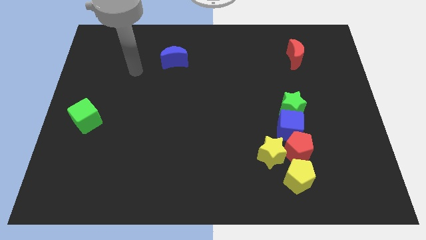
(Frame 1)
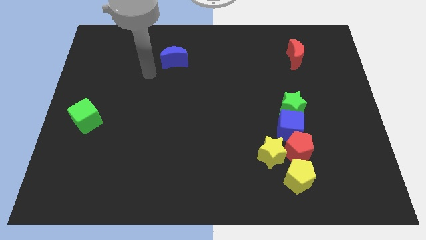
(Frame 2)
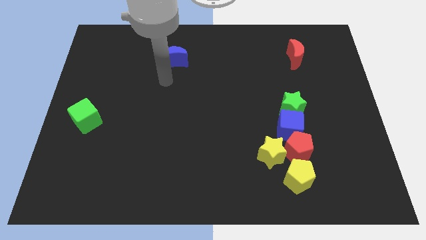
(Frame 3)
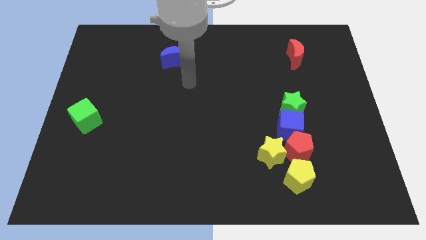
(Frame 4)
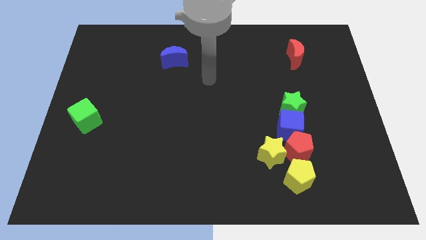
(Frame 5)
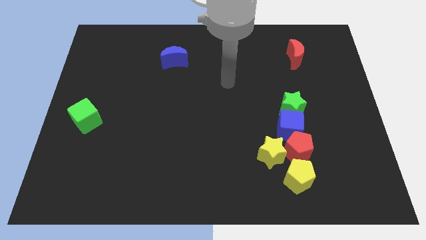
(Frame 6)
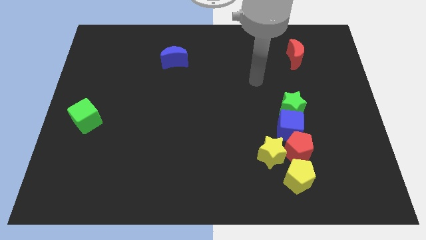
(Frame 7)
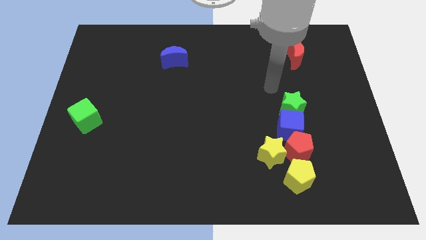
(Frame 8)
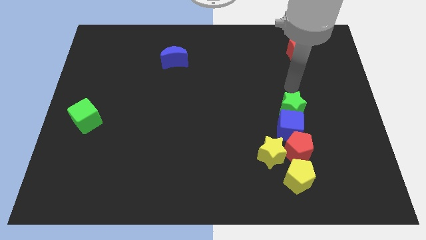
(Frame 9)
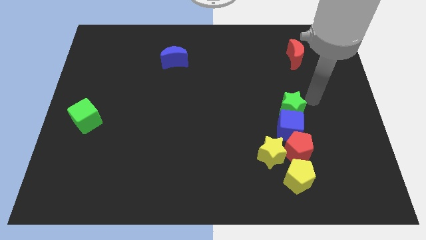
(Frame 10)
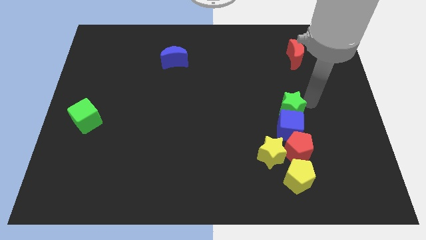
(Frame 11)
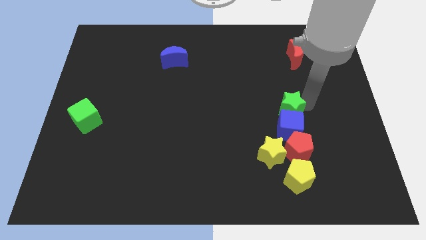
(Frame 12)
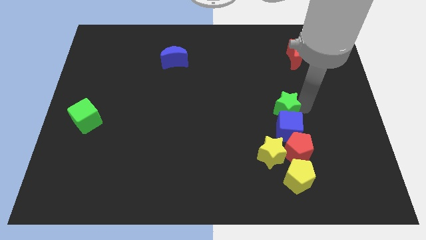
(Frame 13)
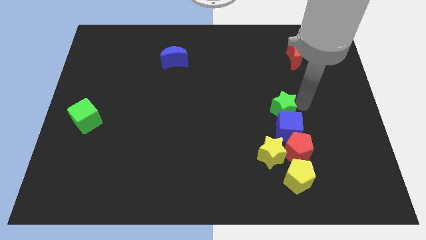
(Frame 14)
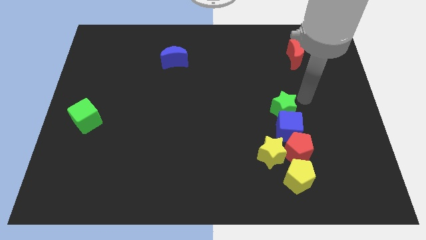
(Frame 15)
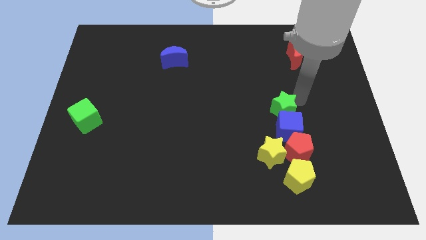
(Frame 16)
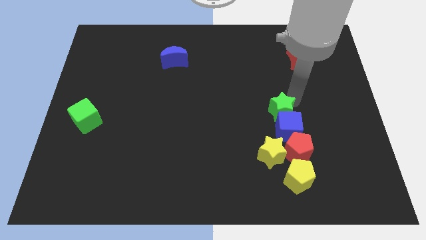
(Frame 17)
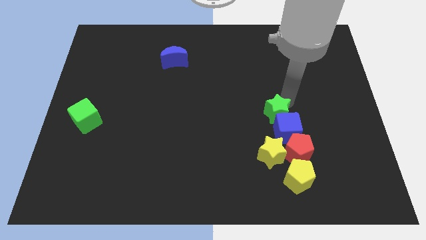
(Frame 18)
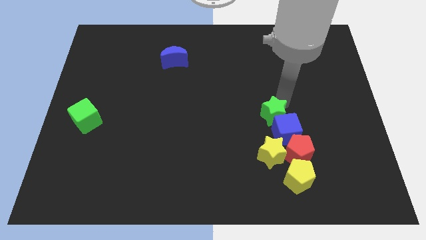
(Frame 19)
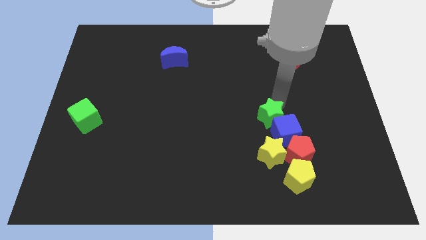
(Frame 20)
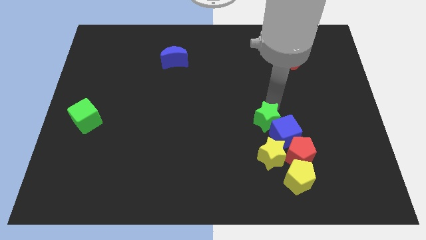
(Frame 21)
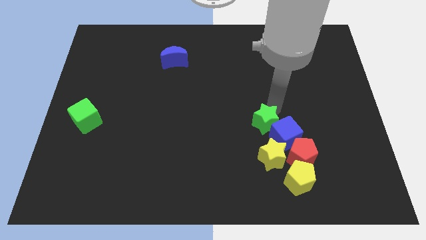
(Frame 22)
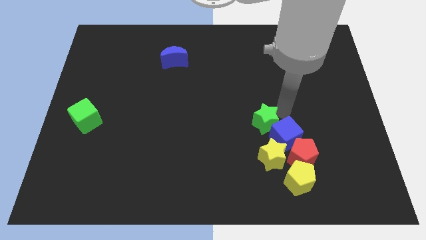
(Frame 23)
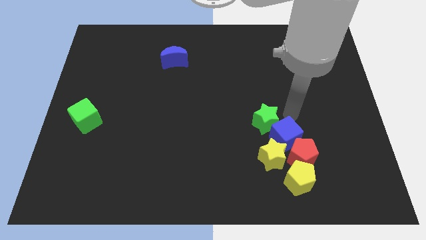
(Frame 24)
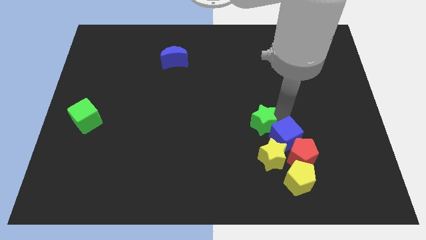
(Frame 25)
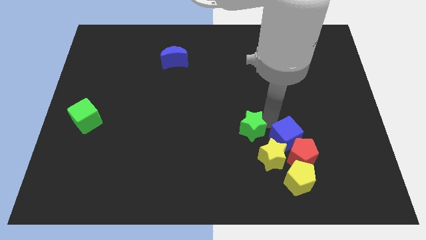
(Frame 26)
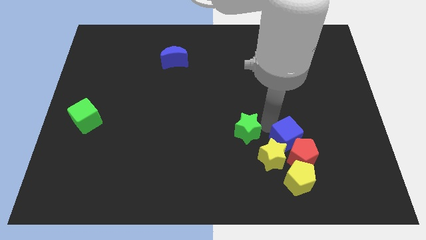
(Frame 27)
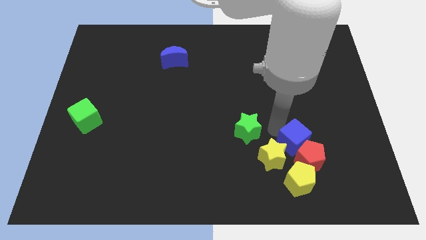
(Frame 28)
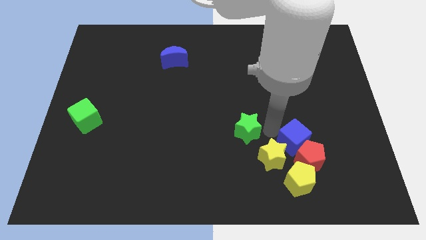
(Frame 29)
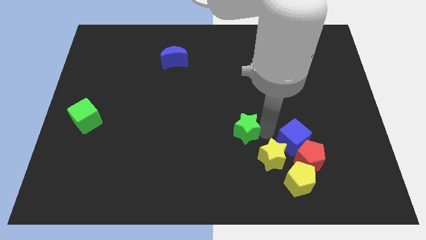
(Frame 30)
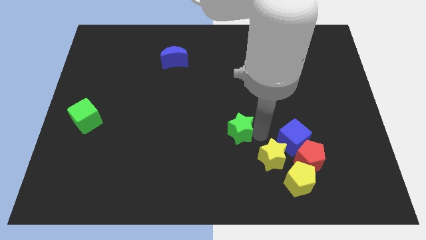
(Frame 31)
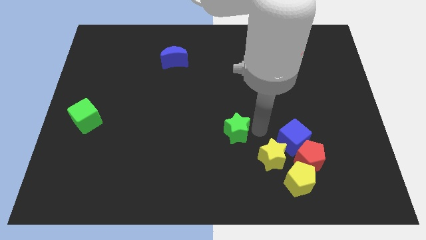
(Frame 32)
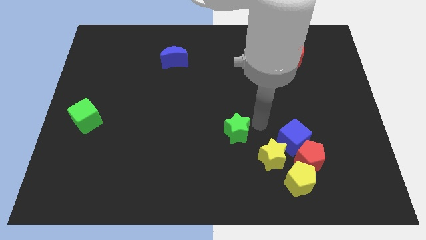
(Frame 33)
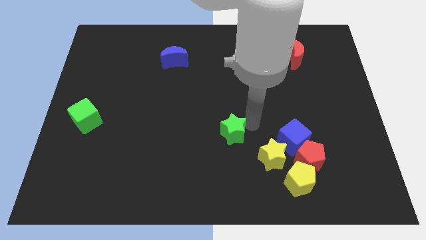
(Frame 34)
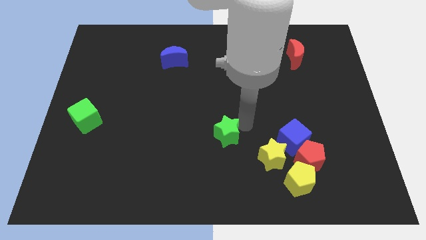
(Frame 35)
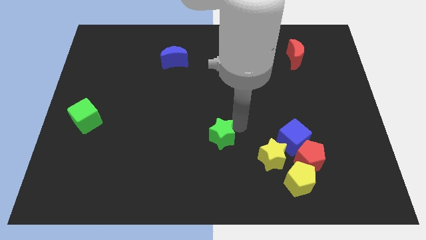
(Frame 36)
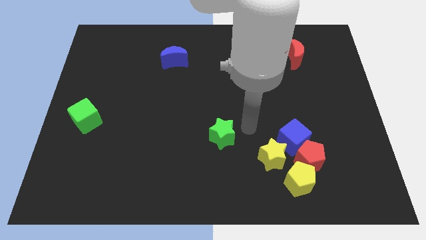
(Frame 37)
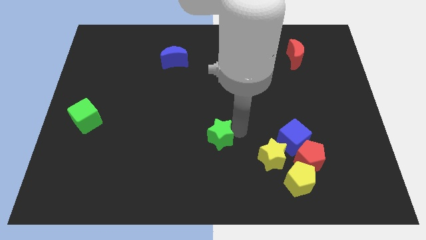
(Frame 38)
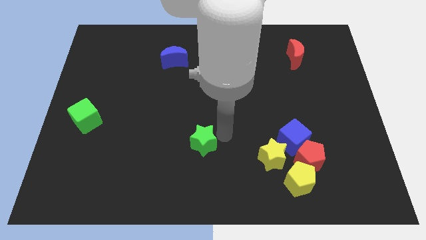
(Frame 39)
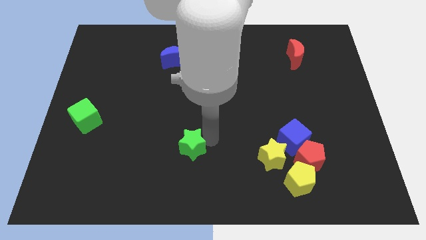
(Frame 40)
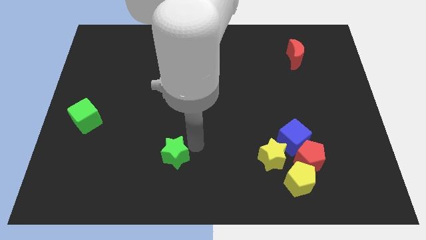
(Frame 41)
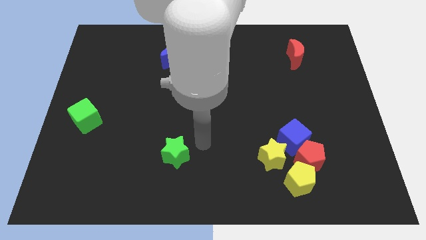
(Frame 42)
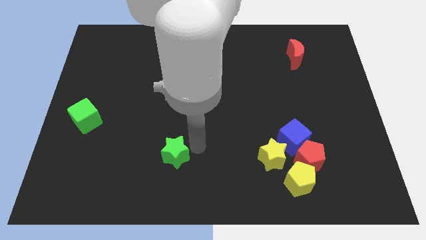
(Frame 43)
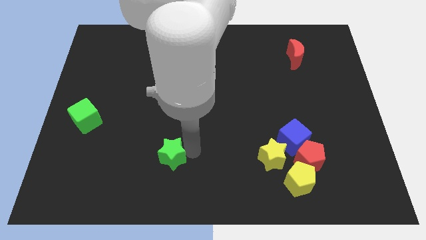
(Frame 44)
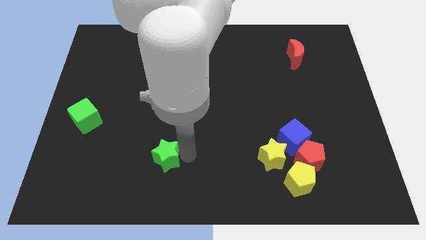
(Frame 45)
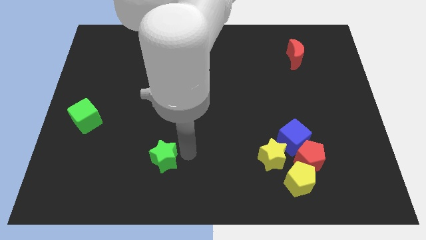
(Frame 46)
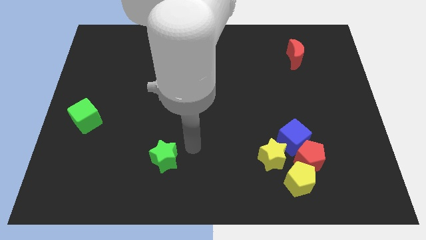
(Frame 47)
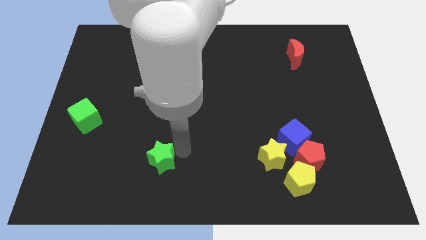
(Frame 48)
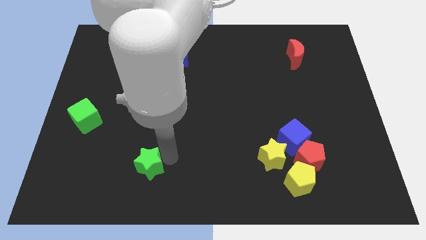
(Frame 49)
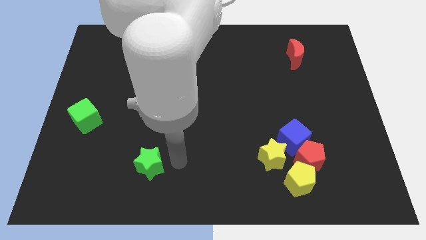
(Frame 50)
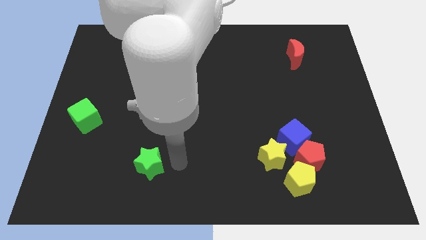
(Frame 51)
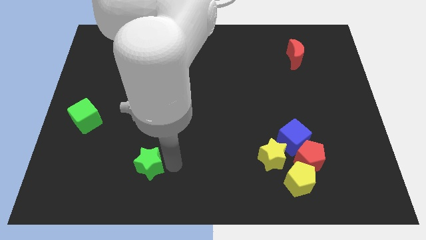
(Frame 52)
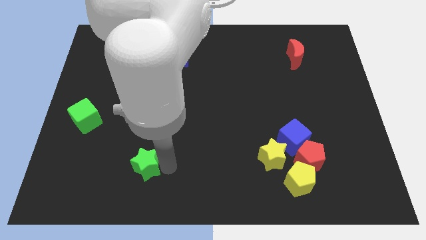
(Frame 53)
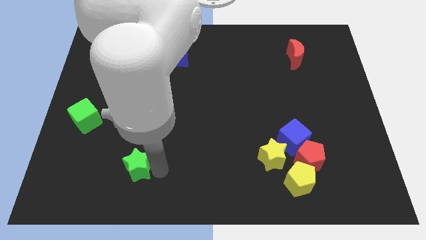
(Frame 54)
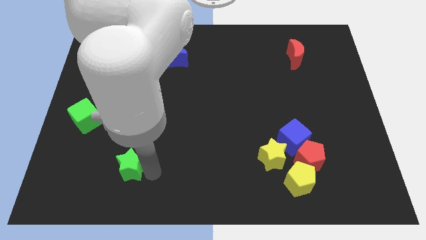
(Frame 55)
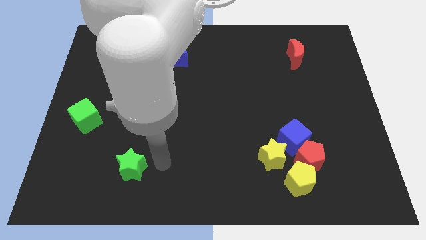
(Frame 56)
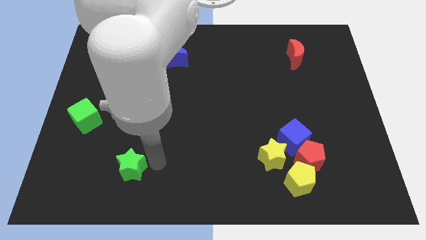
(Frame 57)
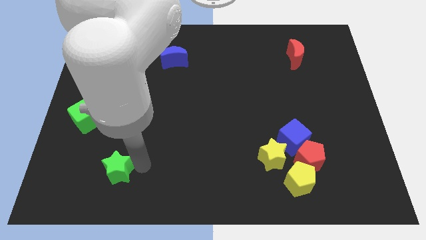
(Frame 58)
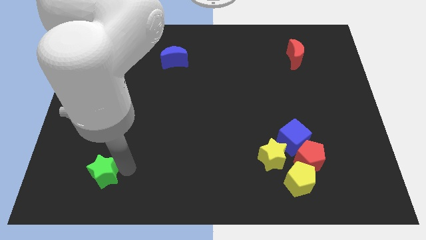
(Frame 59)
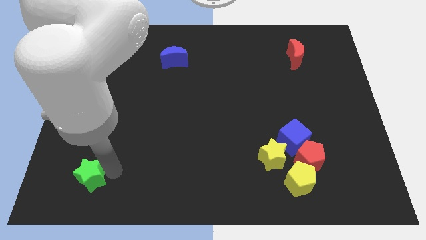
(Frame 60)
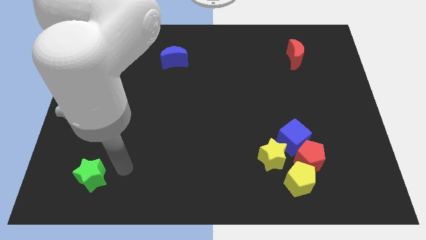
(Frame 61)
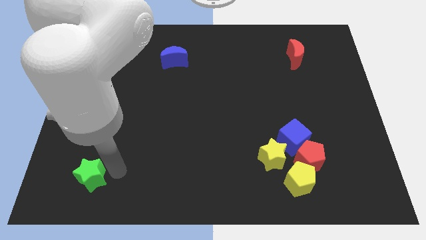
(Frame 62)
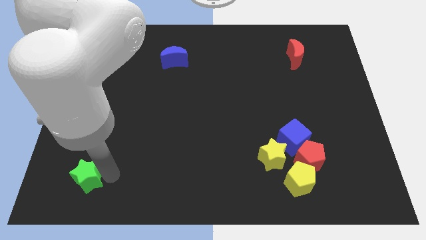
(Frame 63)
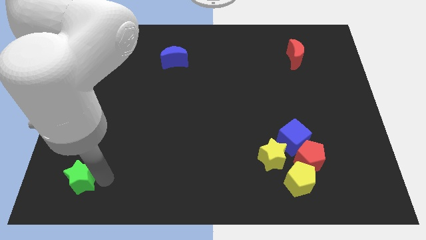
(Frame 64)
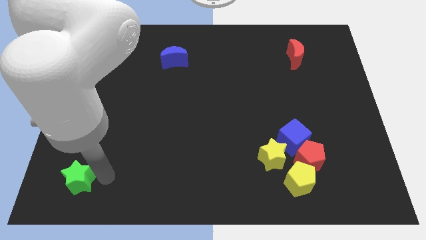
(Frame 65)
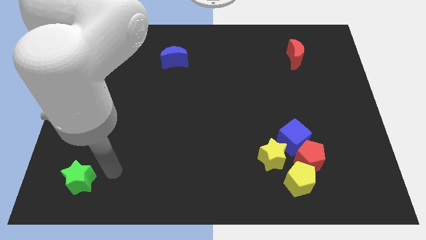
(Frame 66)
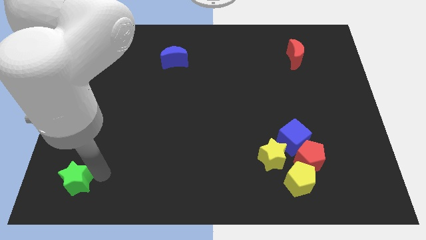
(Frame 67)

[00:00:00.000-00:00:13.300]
slide the green star to the bottom left of the board

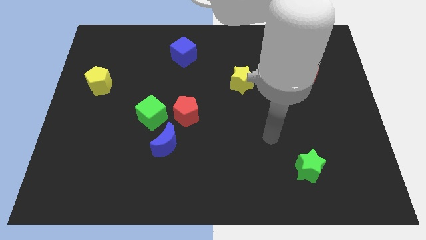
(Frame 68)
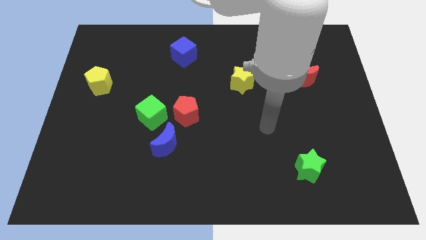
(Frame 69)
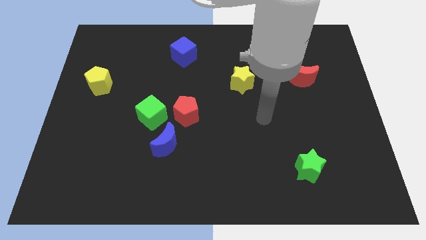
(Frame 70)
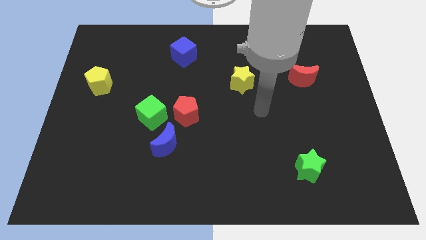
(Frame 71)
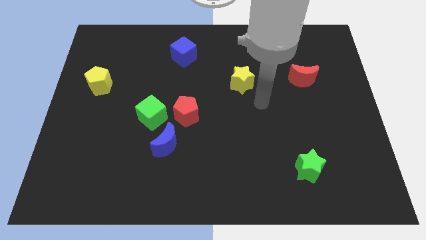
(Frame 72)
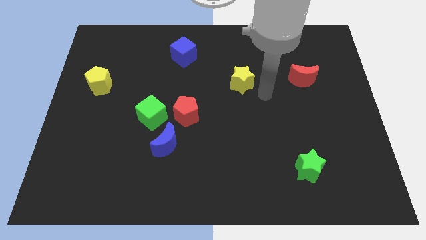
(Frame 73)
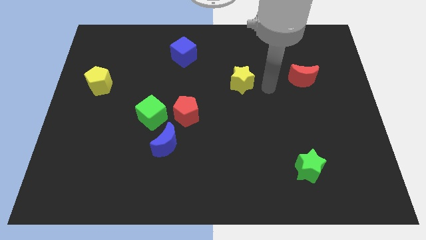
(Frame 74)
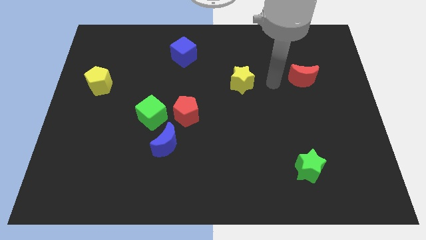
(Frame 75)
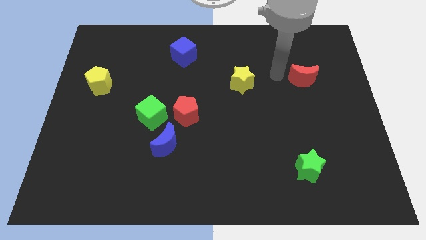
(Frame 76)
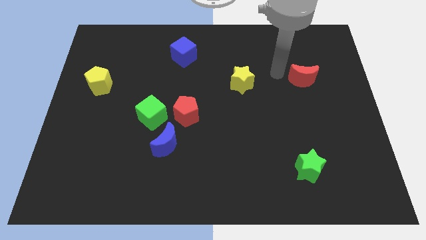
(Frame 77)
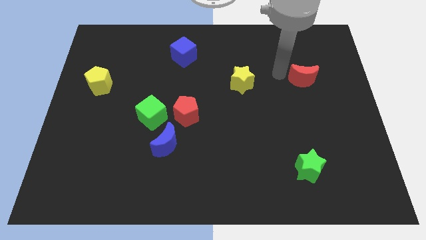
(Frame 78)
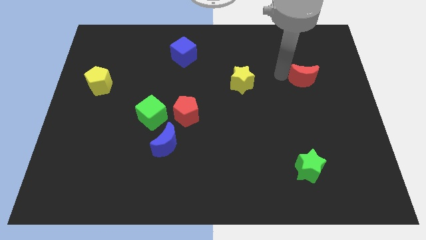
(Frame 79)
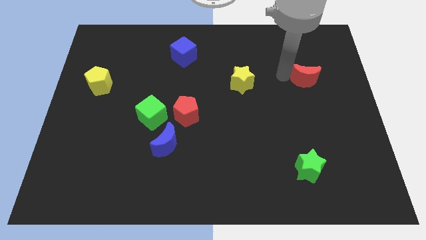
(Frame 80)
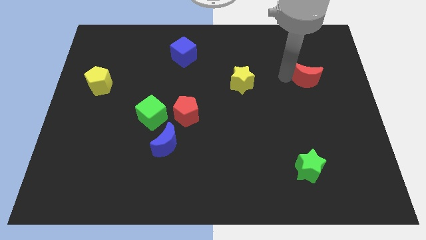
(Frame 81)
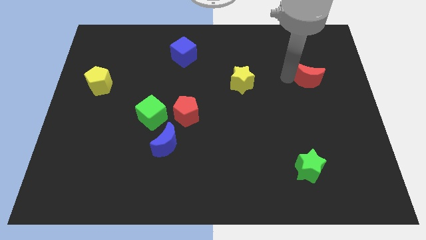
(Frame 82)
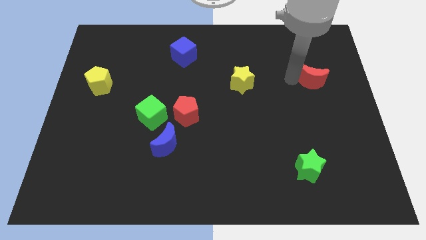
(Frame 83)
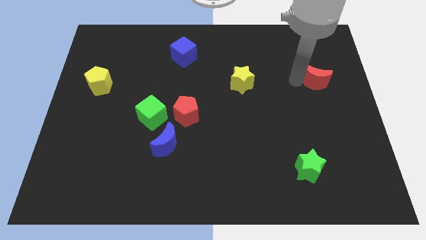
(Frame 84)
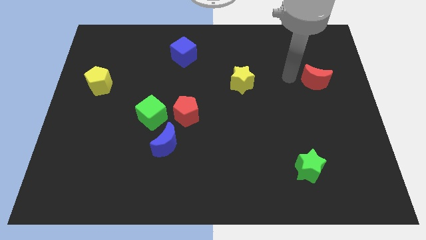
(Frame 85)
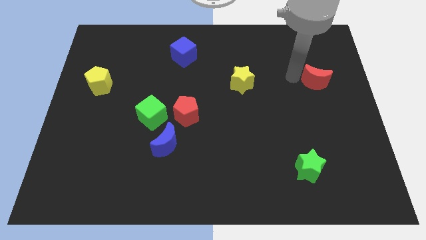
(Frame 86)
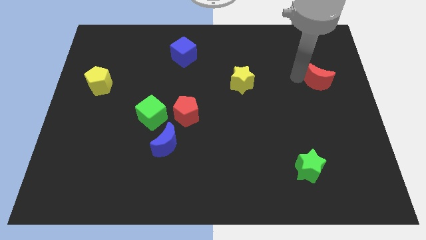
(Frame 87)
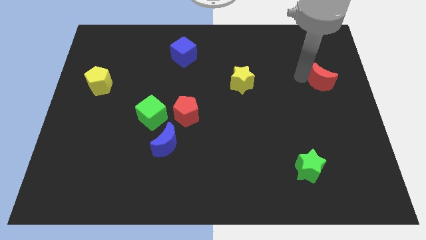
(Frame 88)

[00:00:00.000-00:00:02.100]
move the red moon to the center right
